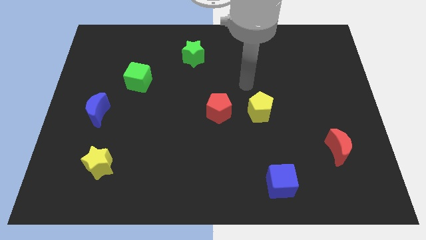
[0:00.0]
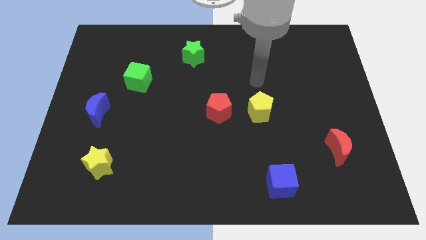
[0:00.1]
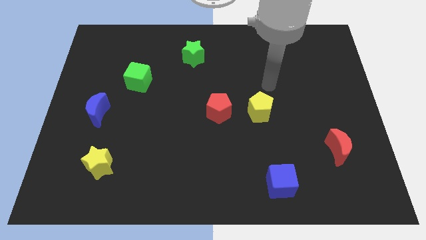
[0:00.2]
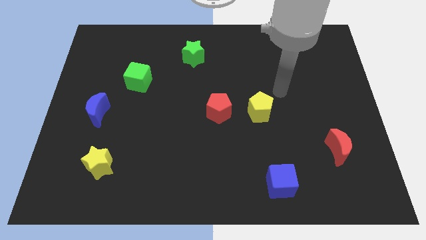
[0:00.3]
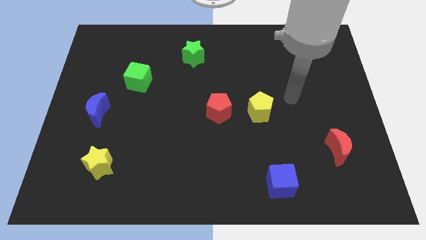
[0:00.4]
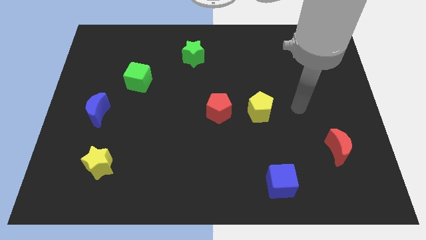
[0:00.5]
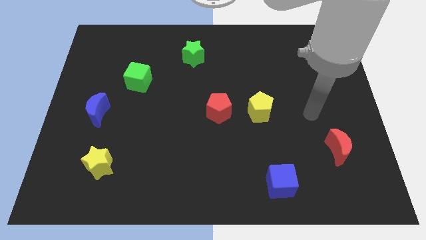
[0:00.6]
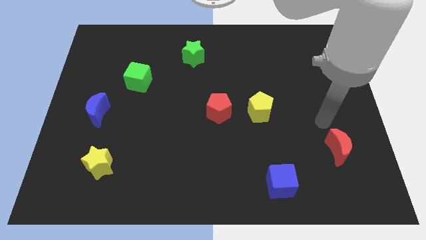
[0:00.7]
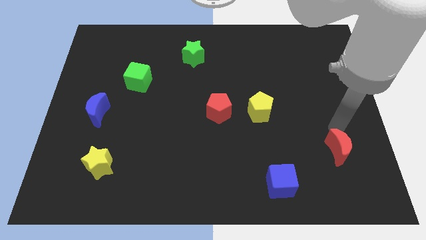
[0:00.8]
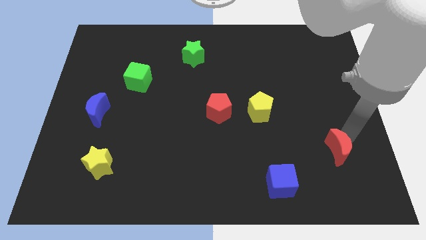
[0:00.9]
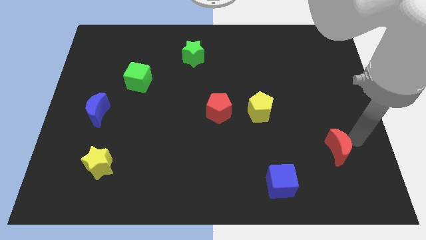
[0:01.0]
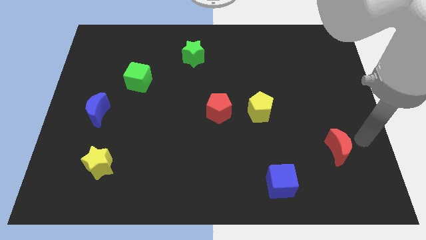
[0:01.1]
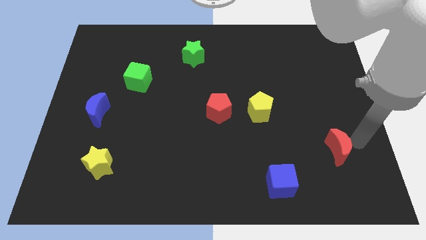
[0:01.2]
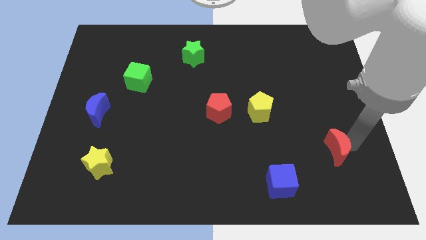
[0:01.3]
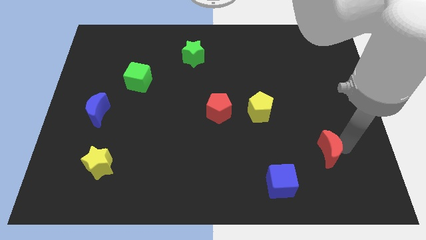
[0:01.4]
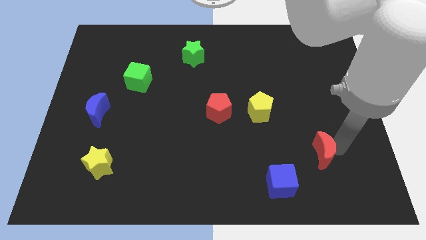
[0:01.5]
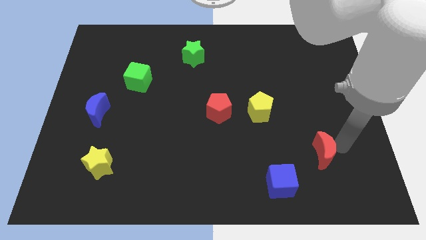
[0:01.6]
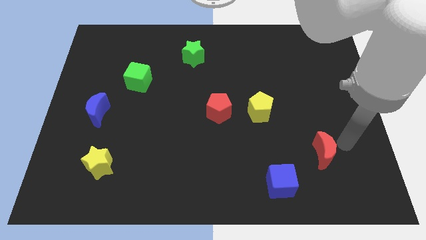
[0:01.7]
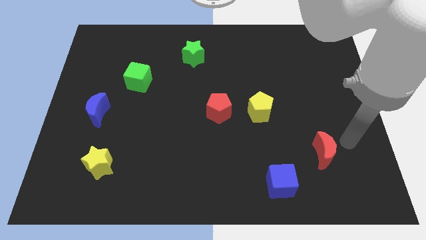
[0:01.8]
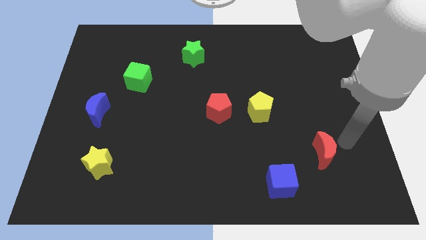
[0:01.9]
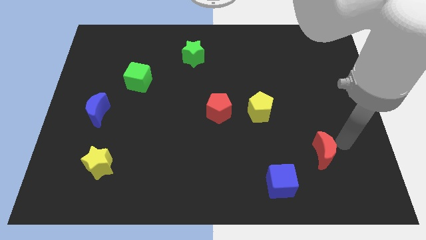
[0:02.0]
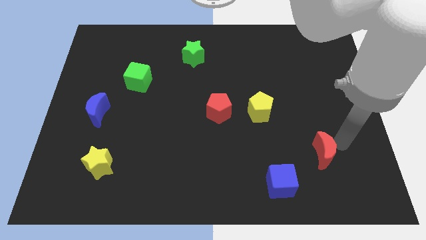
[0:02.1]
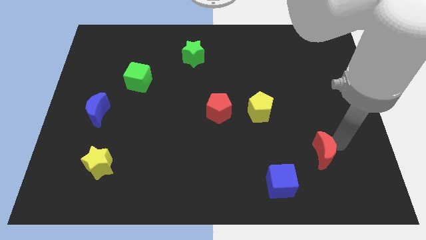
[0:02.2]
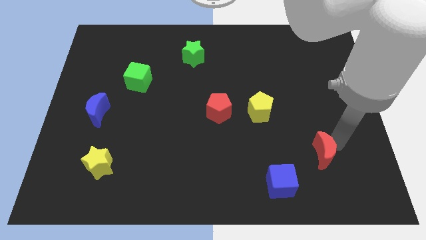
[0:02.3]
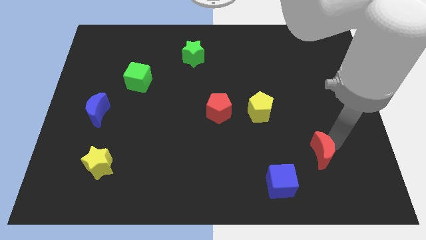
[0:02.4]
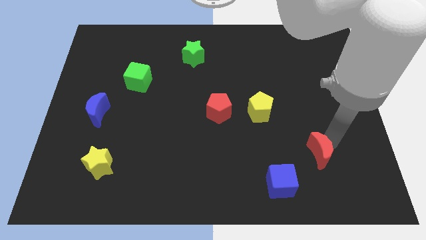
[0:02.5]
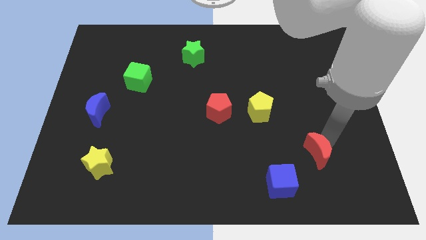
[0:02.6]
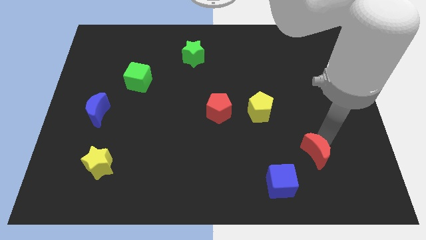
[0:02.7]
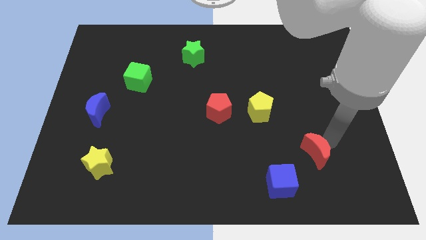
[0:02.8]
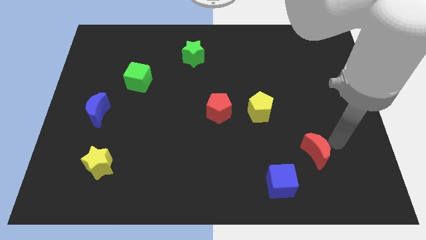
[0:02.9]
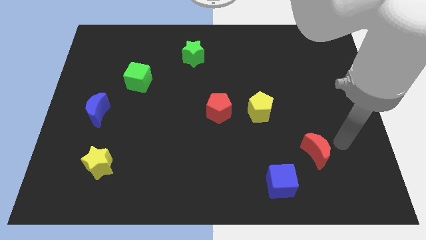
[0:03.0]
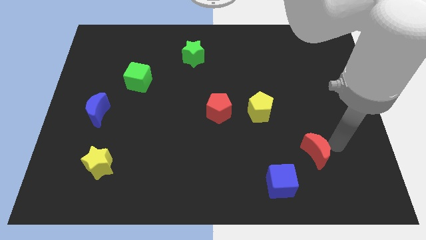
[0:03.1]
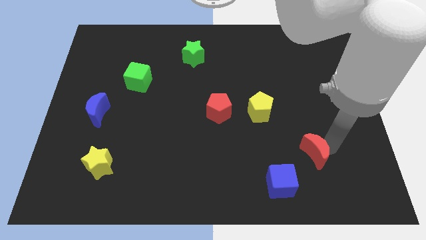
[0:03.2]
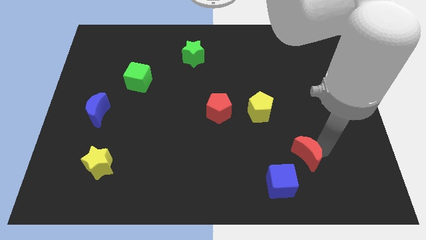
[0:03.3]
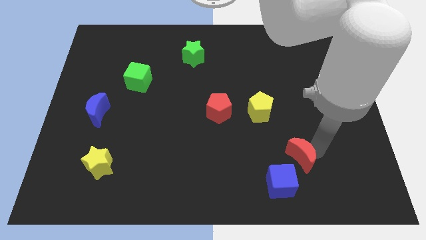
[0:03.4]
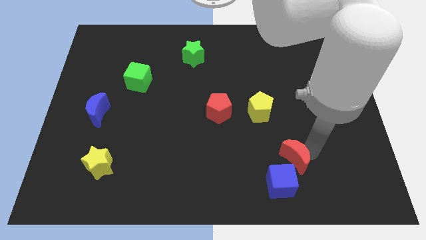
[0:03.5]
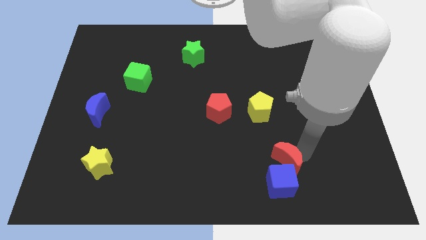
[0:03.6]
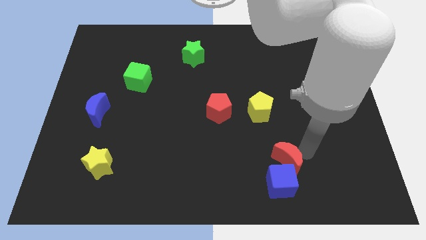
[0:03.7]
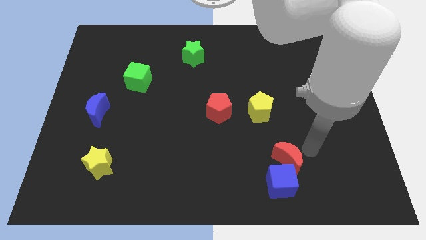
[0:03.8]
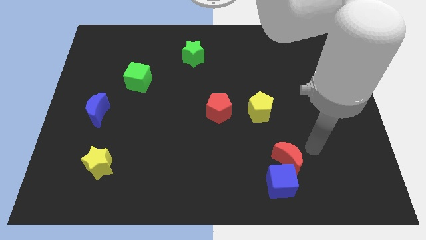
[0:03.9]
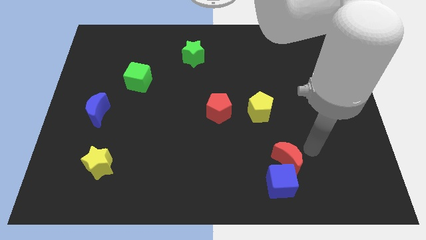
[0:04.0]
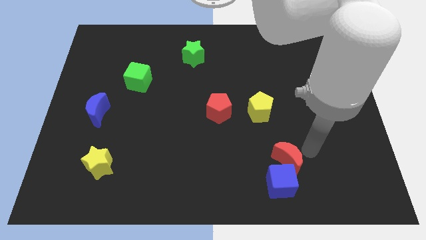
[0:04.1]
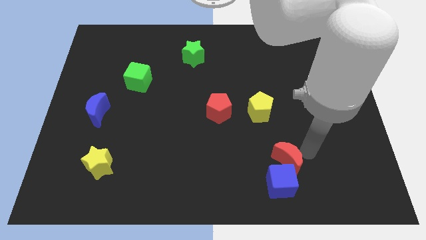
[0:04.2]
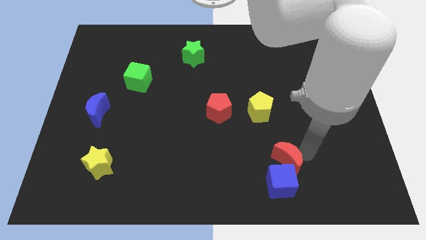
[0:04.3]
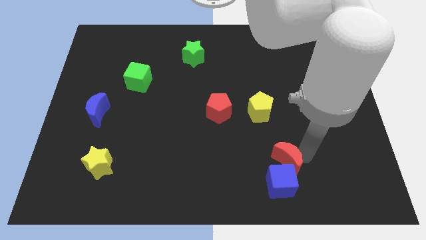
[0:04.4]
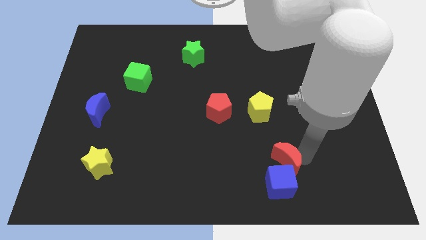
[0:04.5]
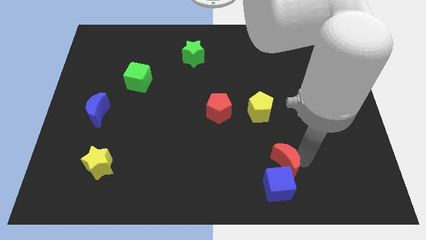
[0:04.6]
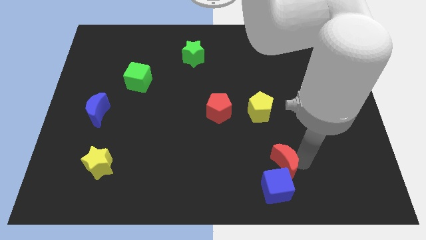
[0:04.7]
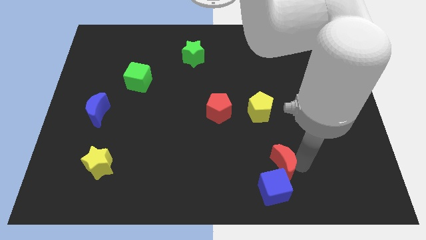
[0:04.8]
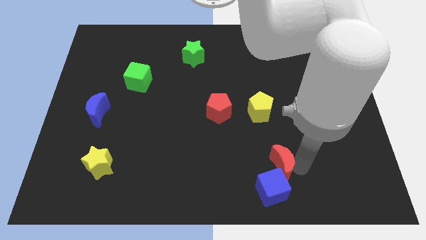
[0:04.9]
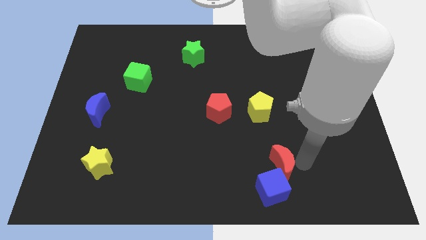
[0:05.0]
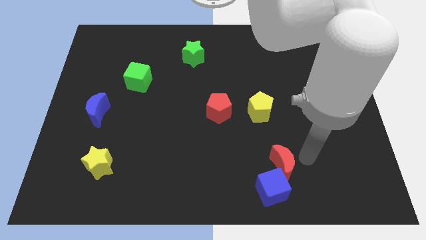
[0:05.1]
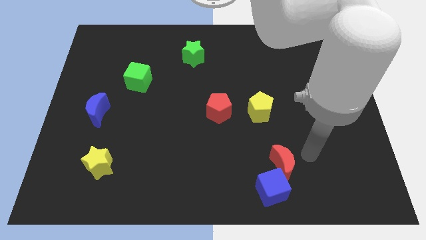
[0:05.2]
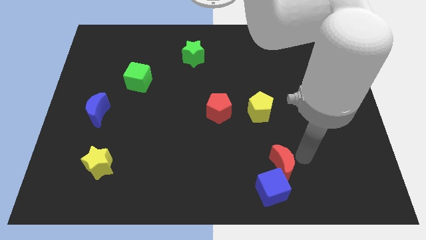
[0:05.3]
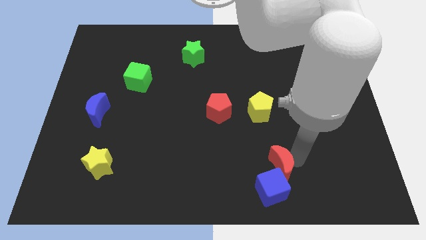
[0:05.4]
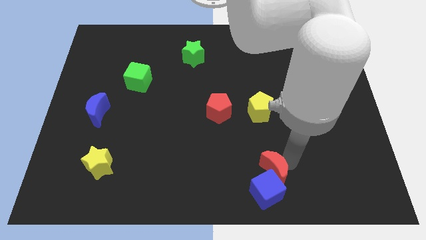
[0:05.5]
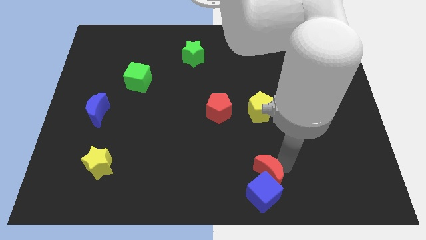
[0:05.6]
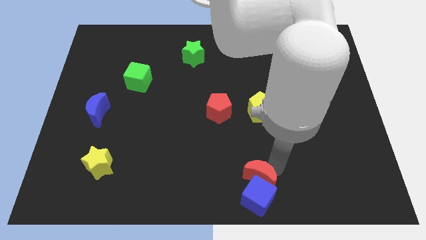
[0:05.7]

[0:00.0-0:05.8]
slide the red moon to the bottom side
